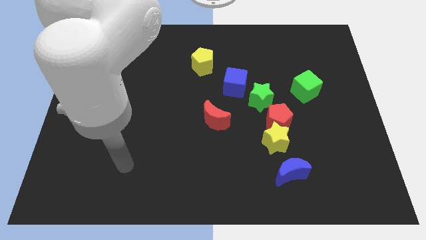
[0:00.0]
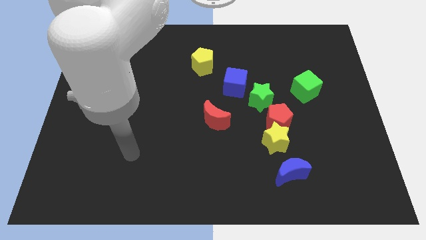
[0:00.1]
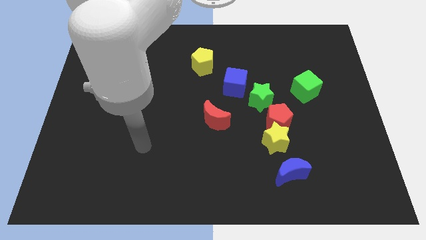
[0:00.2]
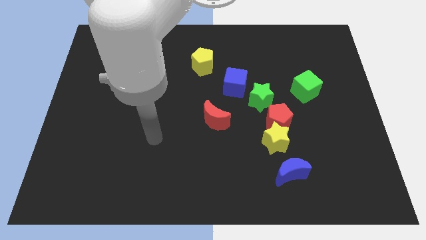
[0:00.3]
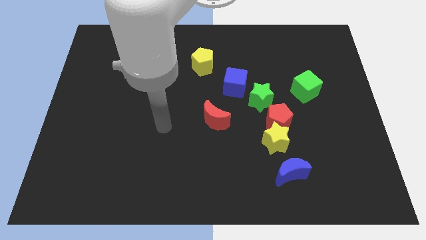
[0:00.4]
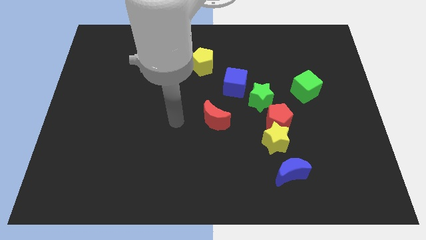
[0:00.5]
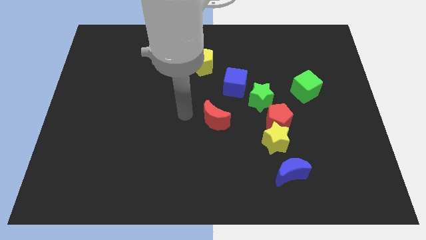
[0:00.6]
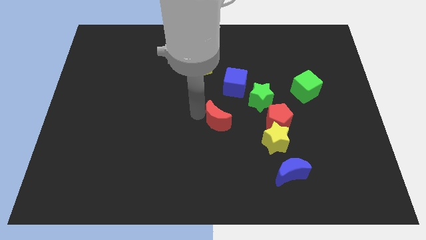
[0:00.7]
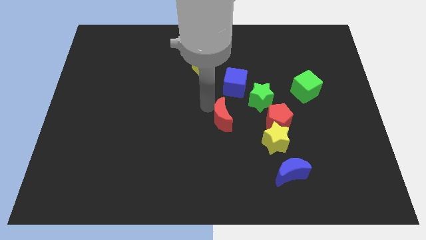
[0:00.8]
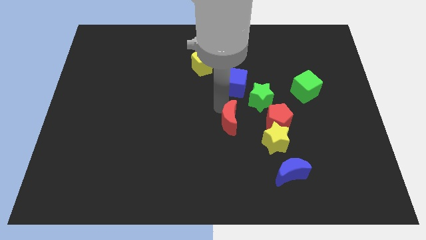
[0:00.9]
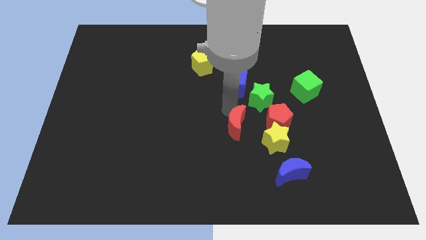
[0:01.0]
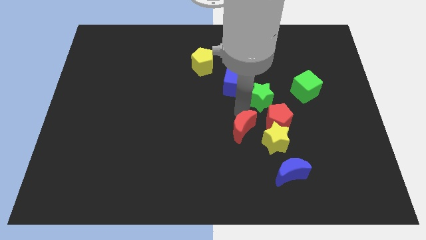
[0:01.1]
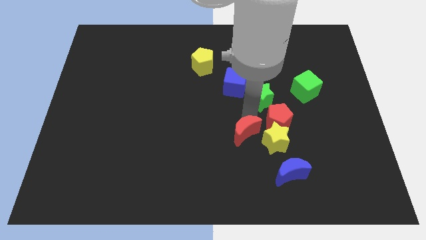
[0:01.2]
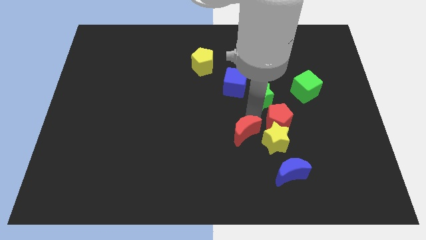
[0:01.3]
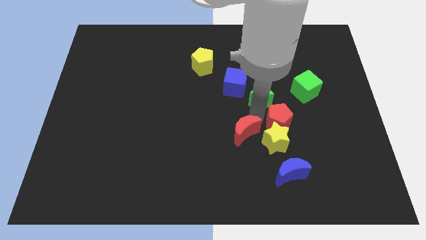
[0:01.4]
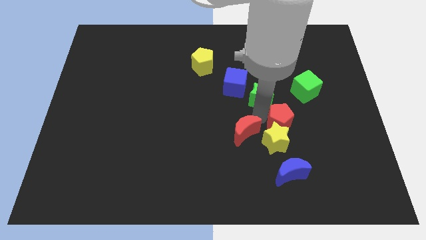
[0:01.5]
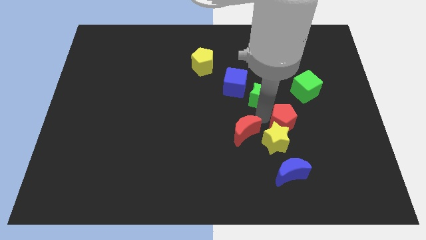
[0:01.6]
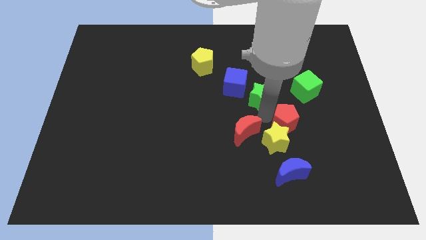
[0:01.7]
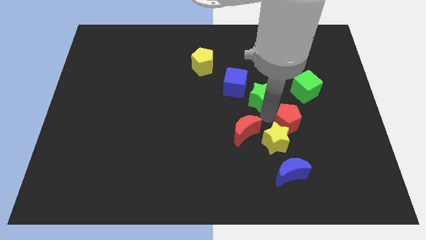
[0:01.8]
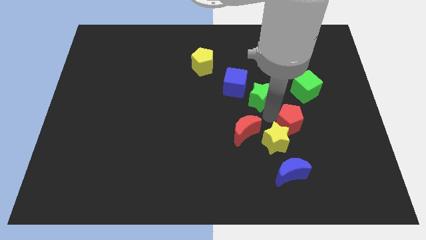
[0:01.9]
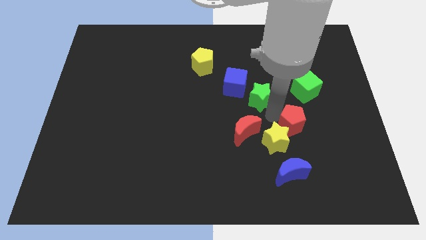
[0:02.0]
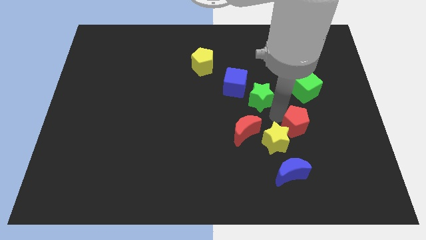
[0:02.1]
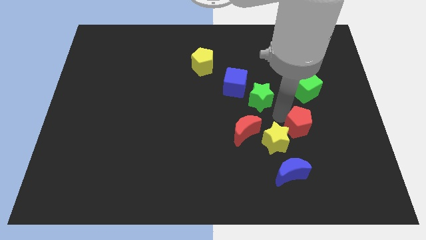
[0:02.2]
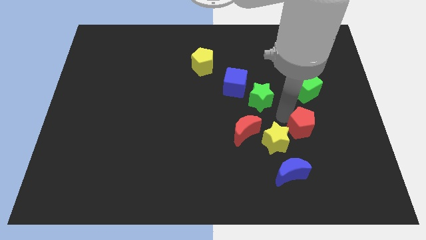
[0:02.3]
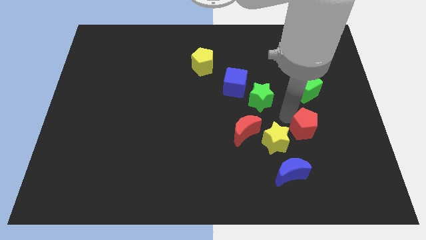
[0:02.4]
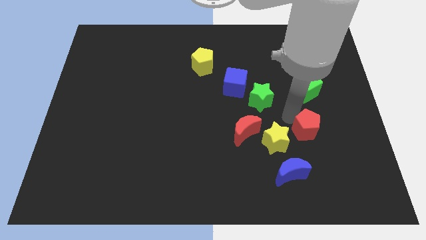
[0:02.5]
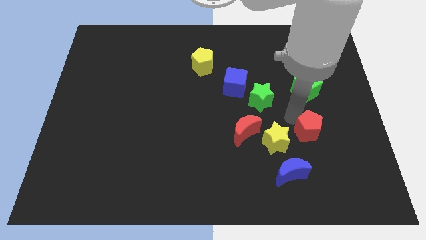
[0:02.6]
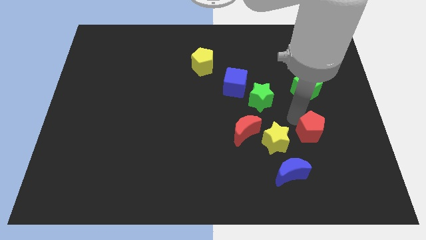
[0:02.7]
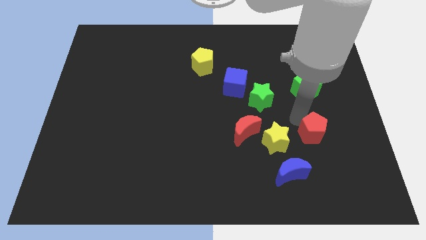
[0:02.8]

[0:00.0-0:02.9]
move the red pentagon away from the yellow star and green star

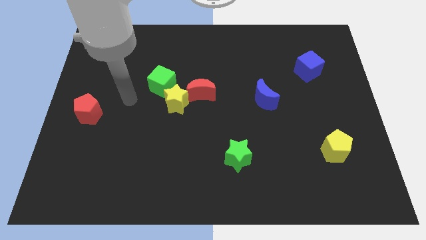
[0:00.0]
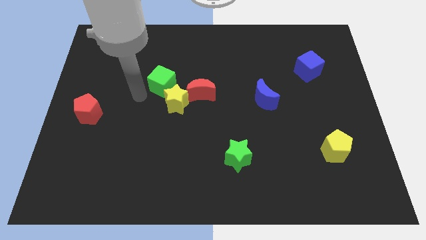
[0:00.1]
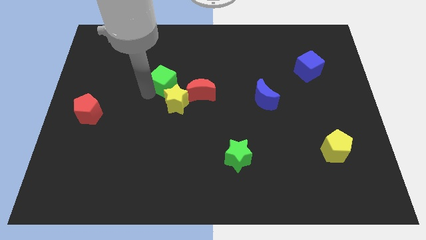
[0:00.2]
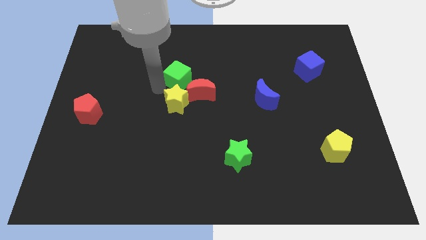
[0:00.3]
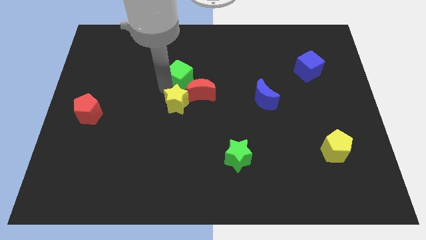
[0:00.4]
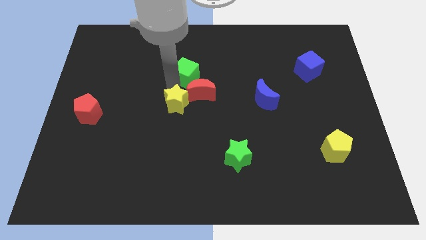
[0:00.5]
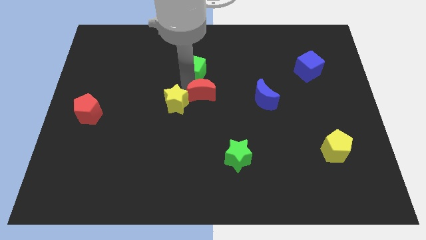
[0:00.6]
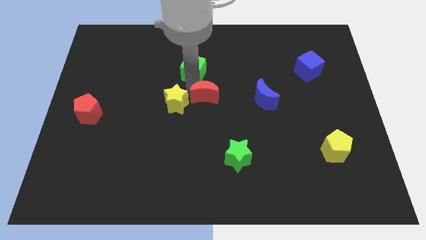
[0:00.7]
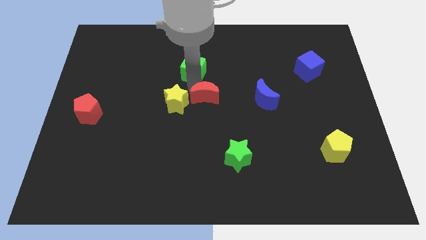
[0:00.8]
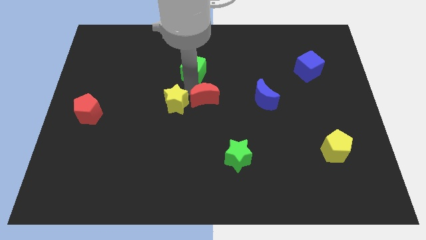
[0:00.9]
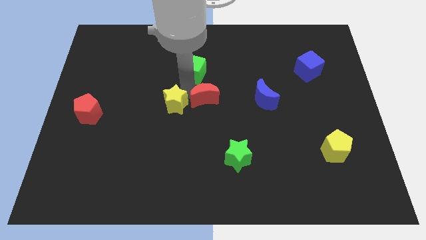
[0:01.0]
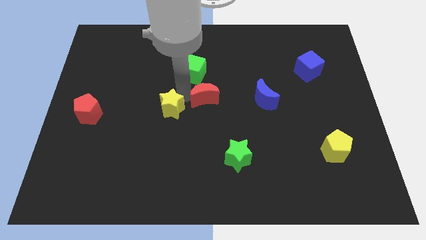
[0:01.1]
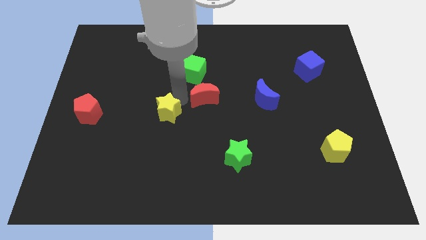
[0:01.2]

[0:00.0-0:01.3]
separate the yellow star from the red moon and green cube

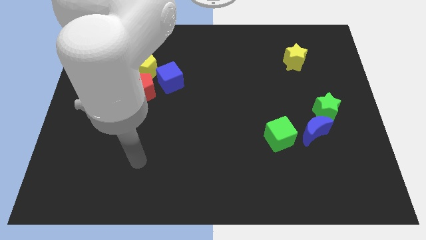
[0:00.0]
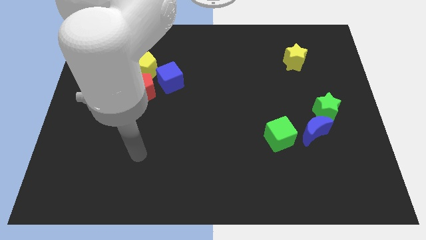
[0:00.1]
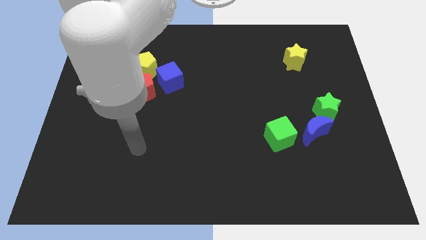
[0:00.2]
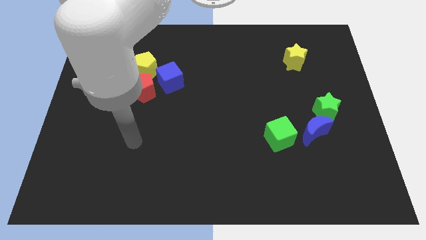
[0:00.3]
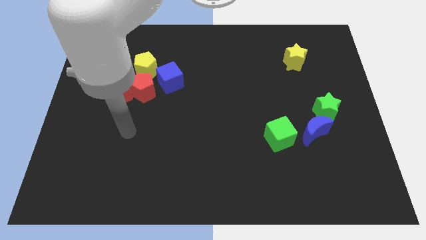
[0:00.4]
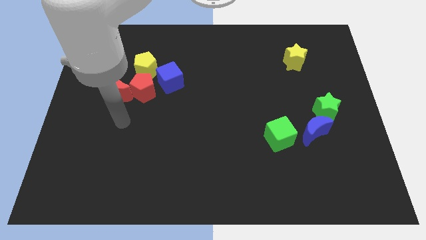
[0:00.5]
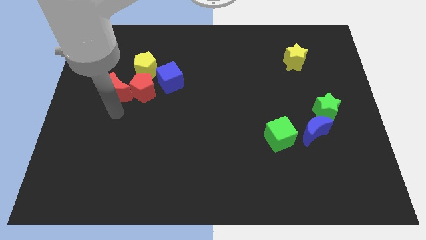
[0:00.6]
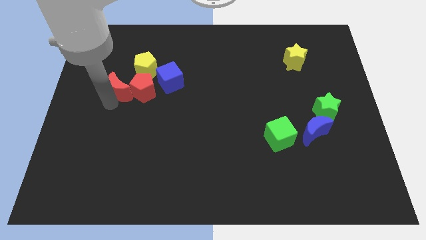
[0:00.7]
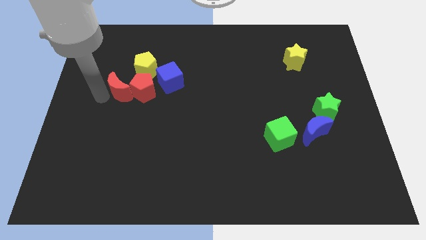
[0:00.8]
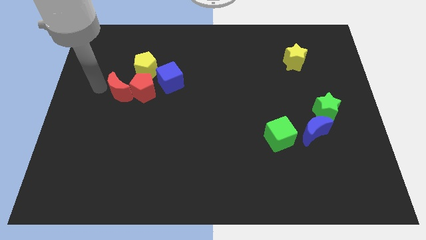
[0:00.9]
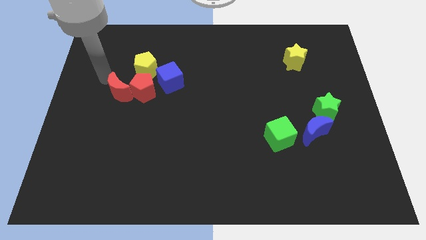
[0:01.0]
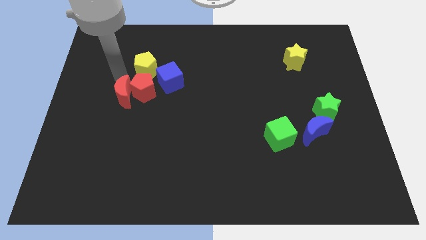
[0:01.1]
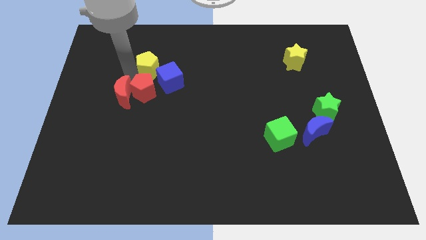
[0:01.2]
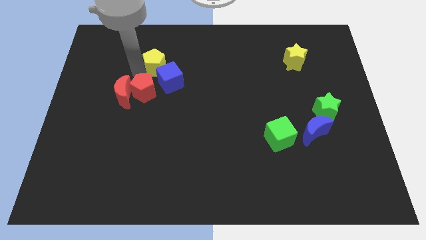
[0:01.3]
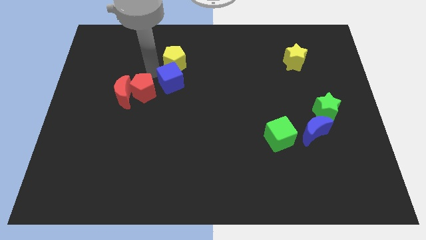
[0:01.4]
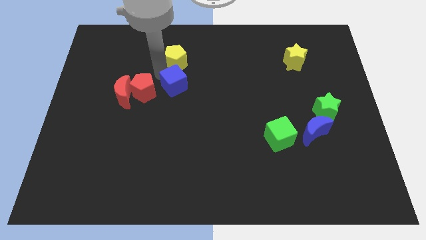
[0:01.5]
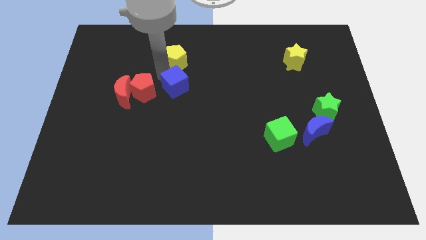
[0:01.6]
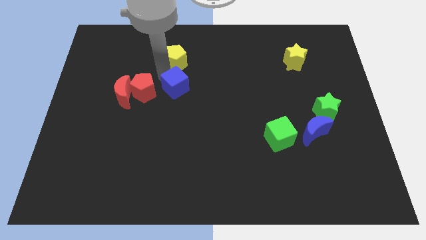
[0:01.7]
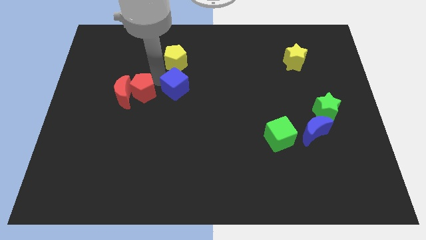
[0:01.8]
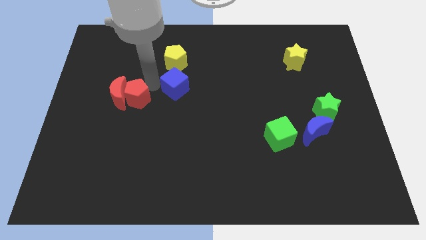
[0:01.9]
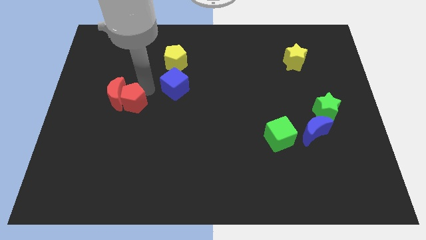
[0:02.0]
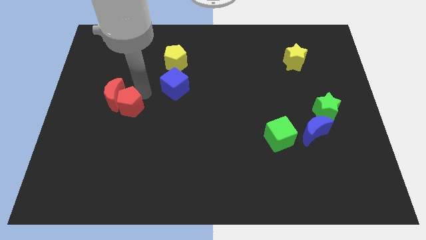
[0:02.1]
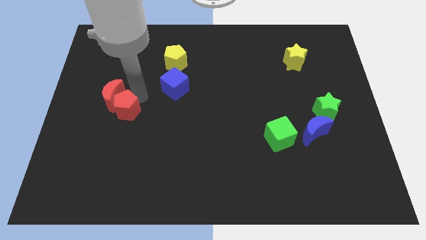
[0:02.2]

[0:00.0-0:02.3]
move the red pentagon away from the group

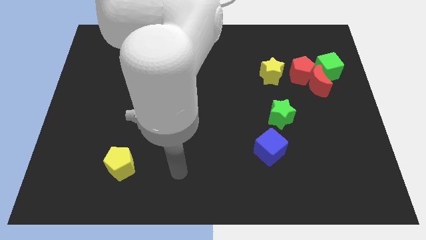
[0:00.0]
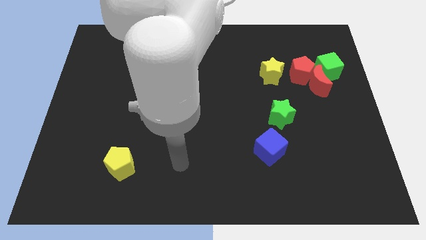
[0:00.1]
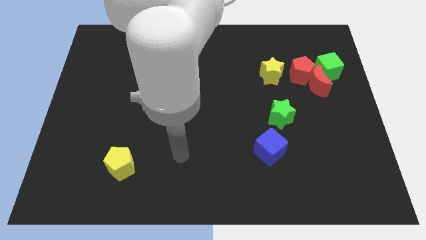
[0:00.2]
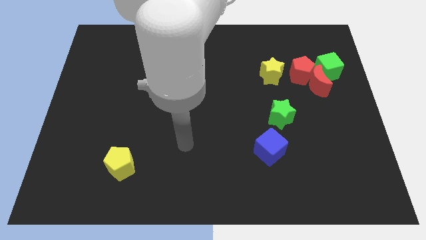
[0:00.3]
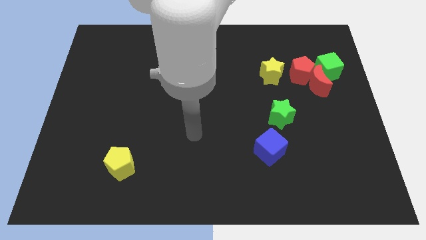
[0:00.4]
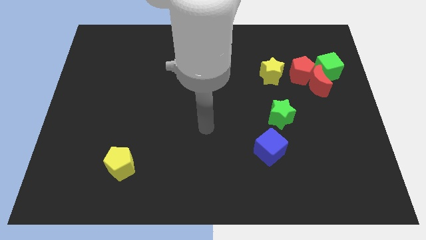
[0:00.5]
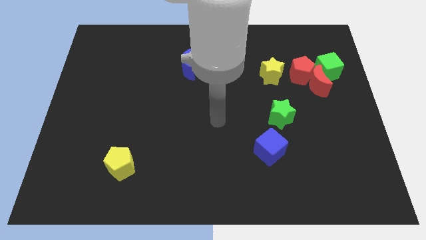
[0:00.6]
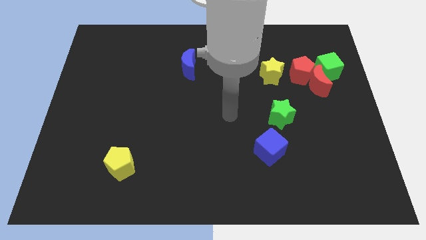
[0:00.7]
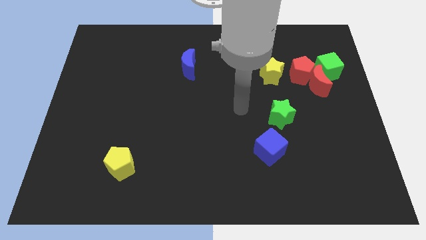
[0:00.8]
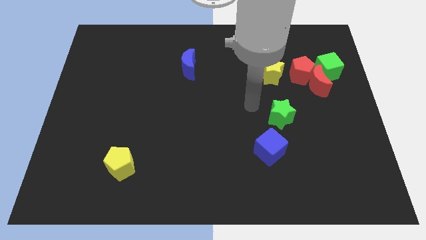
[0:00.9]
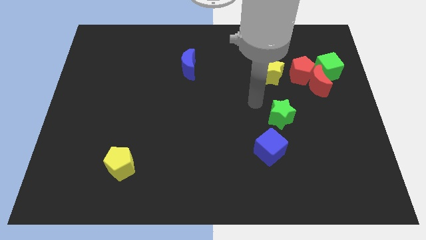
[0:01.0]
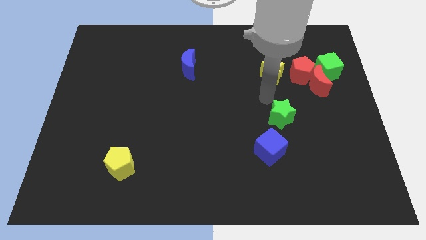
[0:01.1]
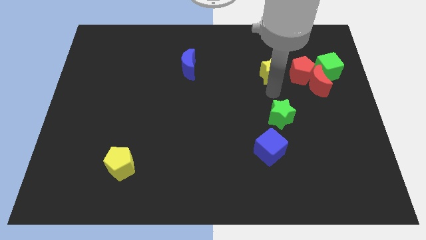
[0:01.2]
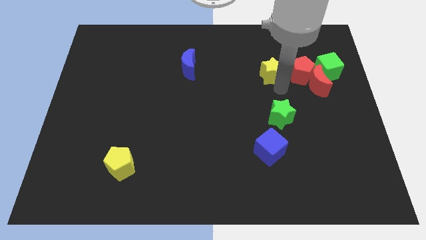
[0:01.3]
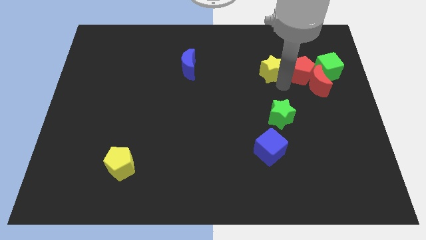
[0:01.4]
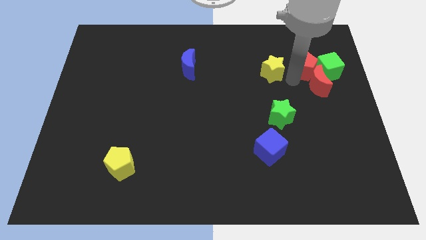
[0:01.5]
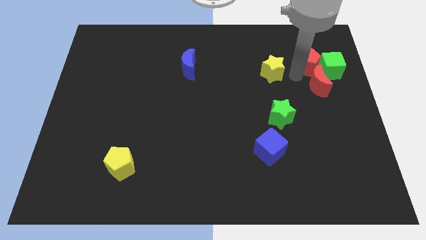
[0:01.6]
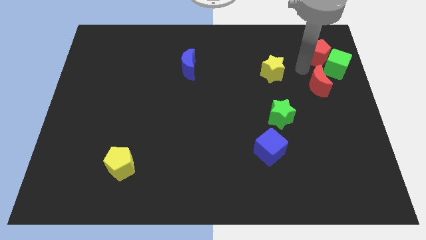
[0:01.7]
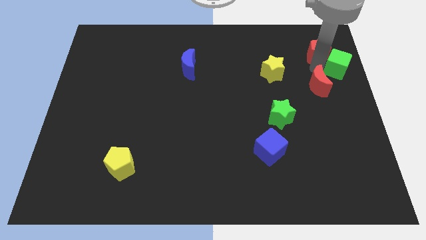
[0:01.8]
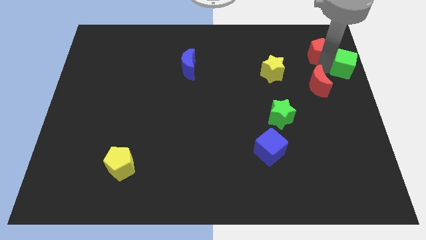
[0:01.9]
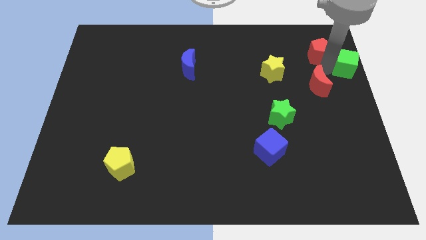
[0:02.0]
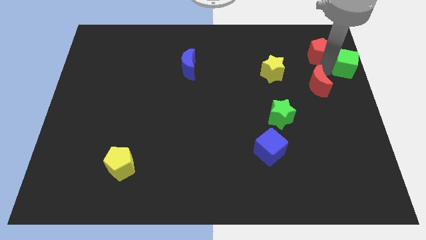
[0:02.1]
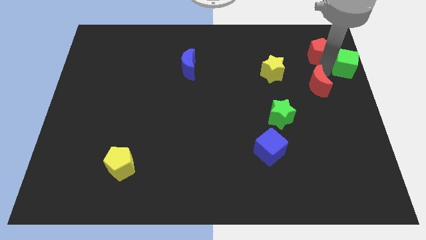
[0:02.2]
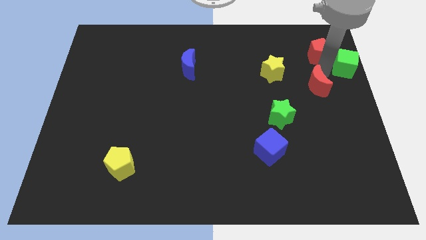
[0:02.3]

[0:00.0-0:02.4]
pull the red moon apart from the red pentagon and green cube

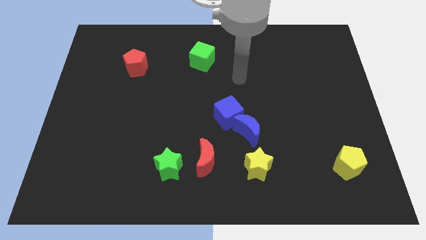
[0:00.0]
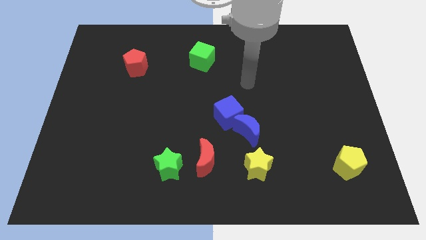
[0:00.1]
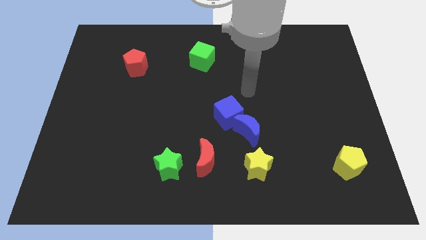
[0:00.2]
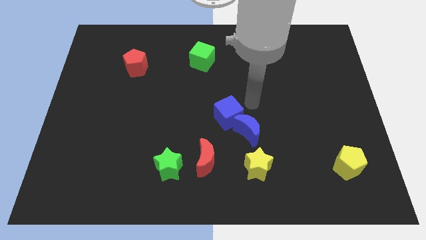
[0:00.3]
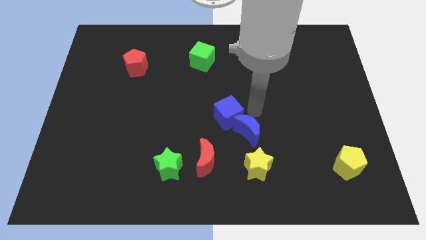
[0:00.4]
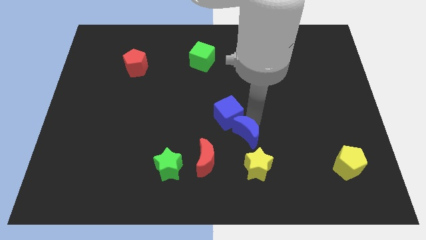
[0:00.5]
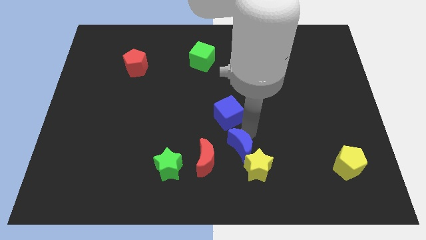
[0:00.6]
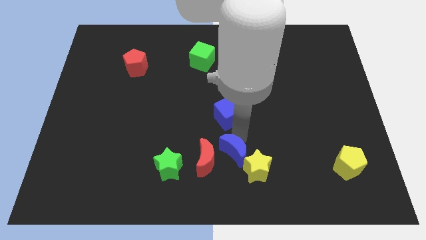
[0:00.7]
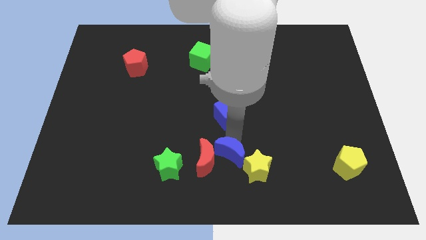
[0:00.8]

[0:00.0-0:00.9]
separate the blue cube from the blue moon
